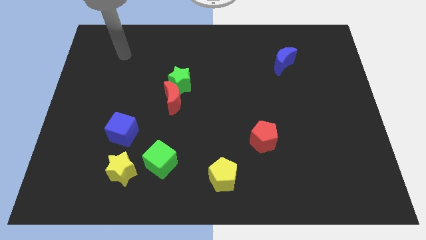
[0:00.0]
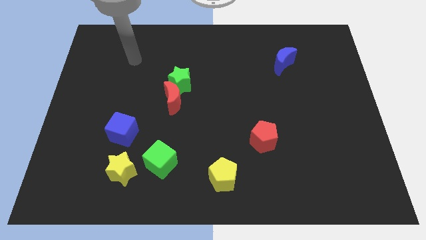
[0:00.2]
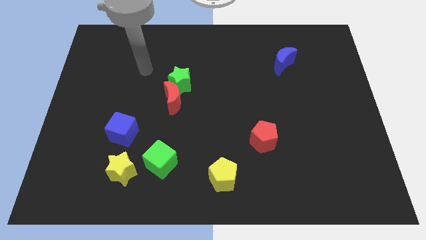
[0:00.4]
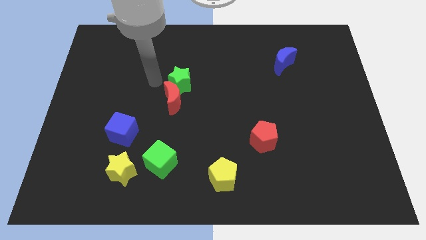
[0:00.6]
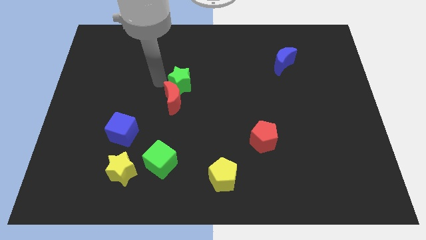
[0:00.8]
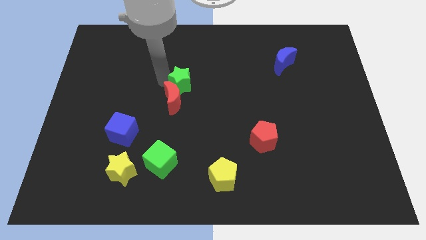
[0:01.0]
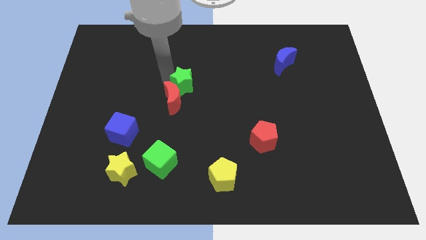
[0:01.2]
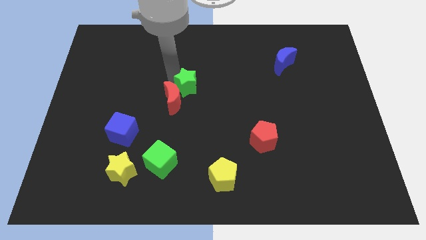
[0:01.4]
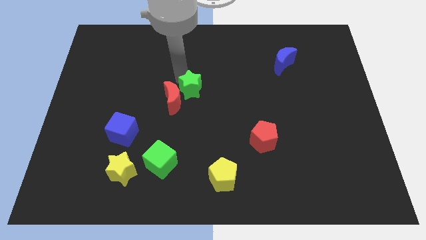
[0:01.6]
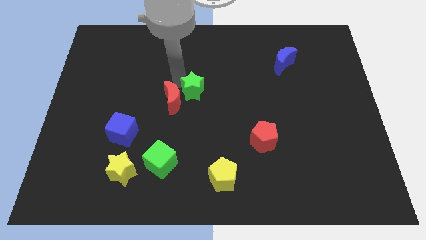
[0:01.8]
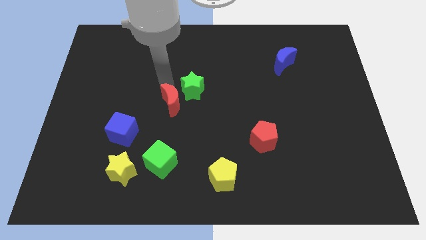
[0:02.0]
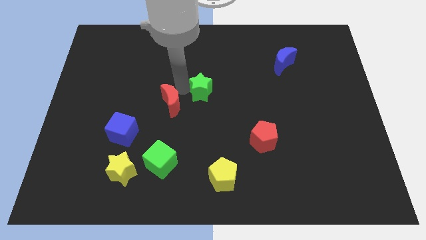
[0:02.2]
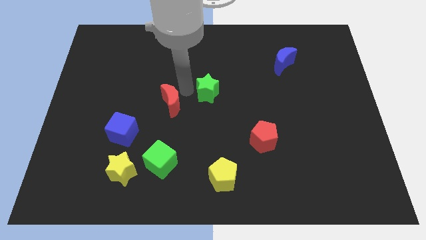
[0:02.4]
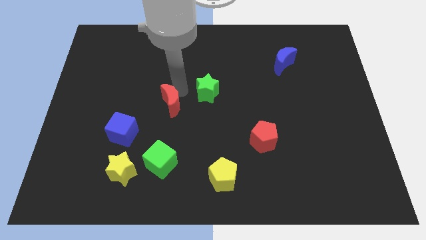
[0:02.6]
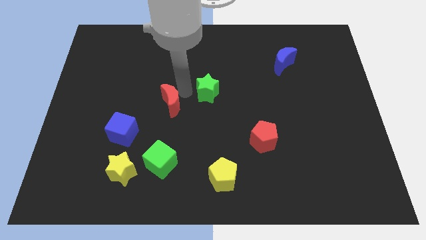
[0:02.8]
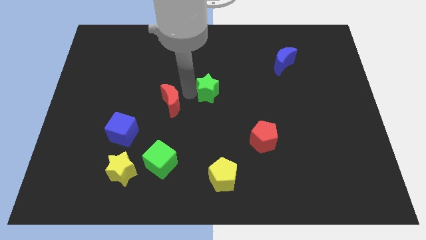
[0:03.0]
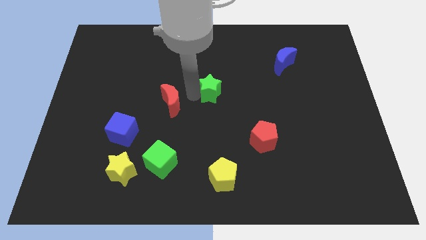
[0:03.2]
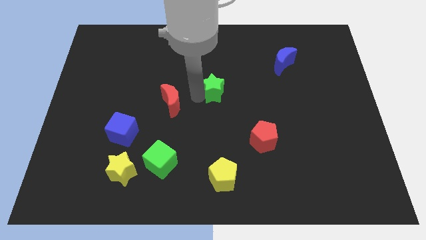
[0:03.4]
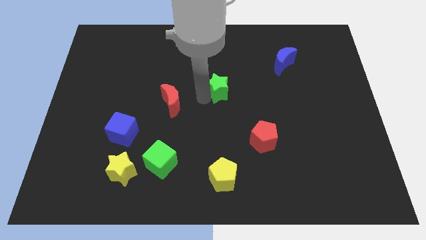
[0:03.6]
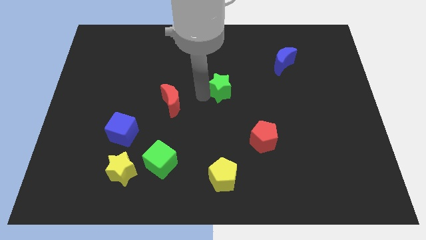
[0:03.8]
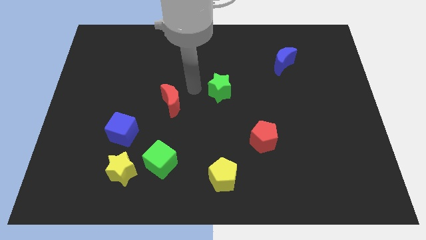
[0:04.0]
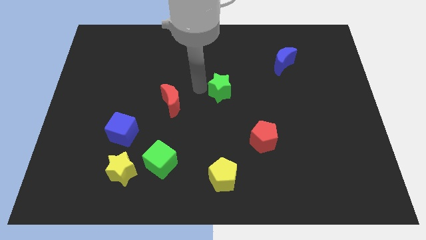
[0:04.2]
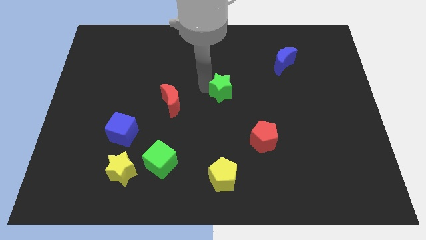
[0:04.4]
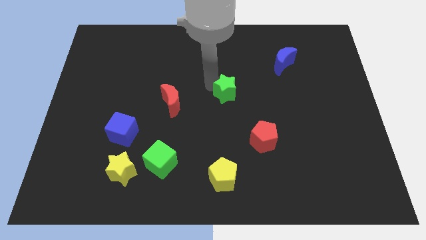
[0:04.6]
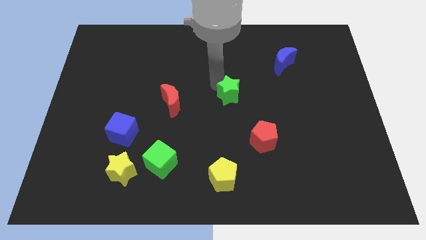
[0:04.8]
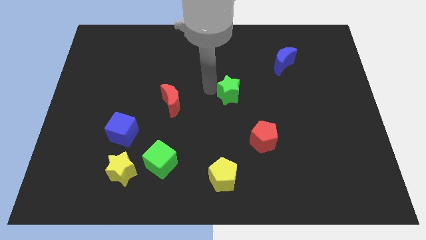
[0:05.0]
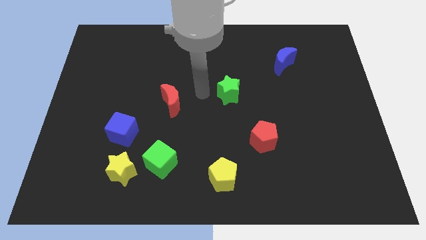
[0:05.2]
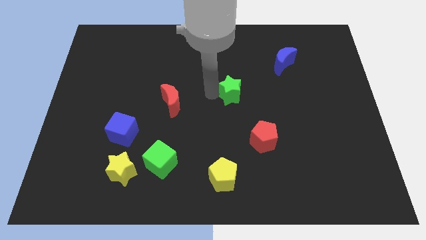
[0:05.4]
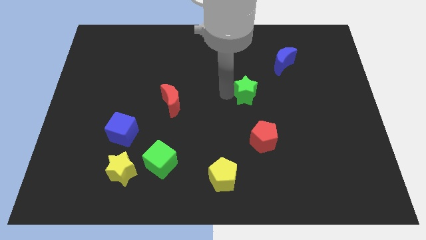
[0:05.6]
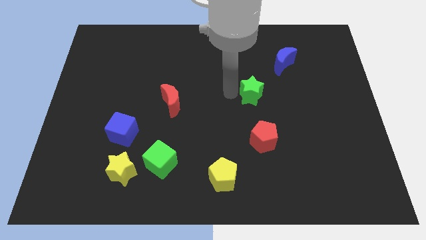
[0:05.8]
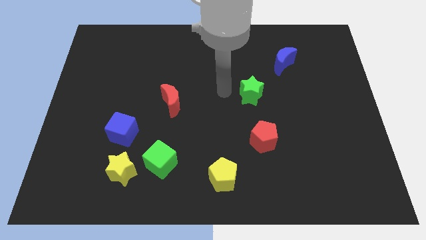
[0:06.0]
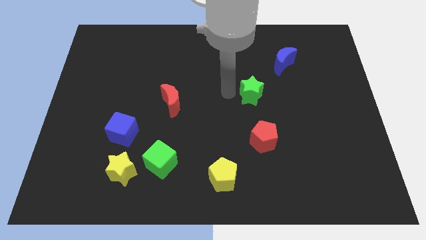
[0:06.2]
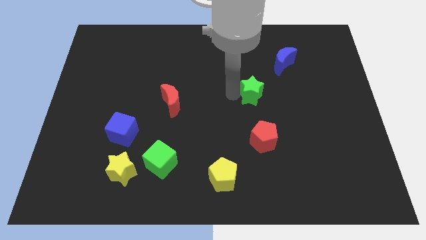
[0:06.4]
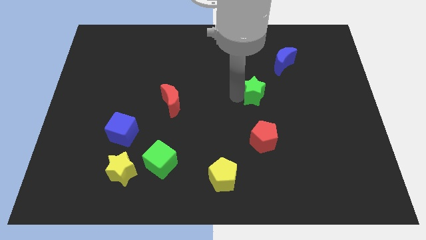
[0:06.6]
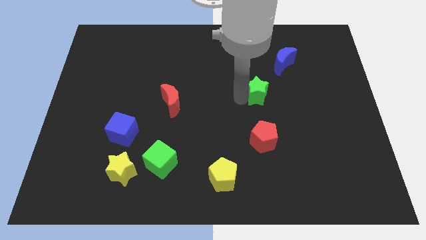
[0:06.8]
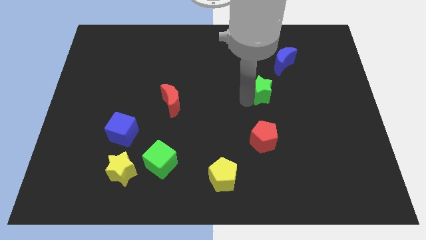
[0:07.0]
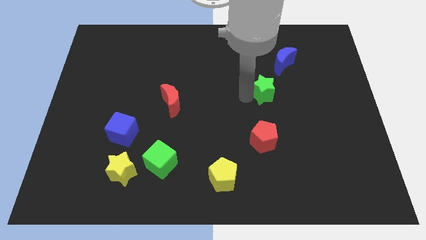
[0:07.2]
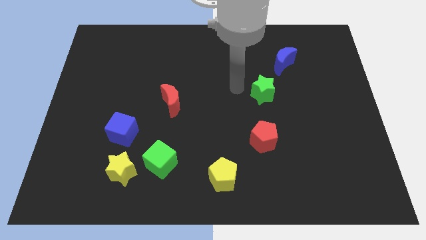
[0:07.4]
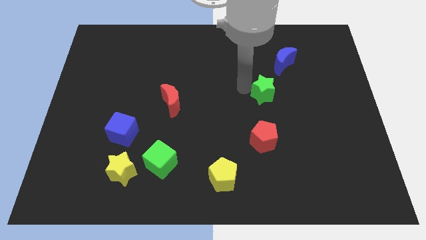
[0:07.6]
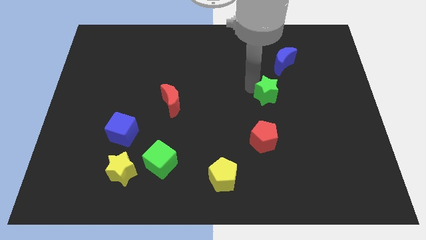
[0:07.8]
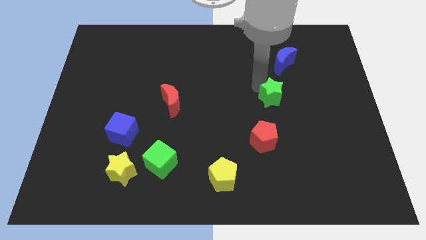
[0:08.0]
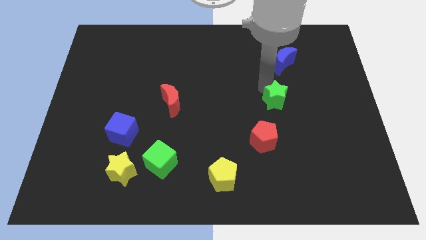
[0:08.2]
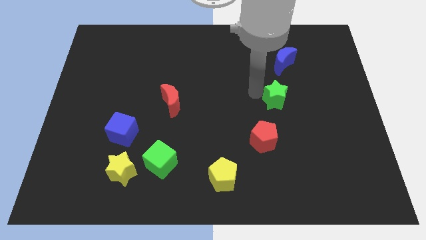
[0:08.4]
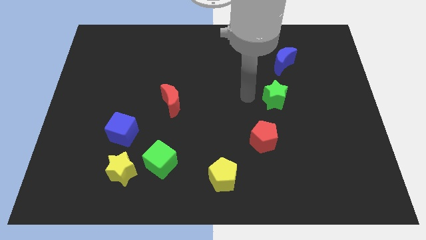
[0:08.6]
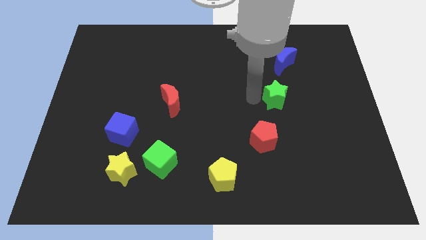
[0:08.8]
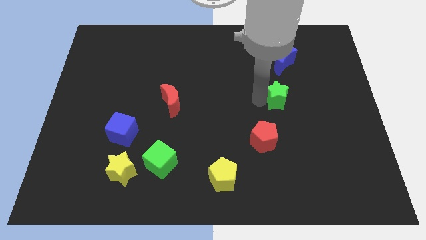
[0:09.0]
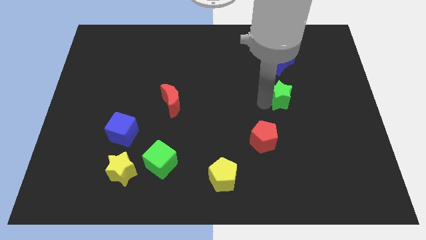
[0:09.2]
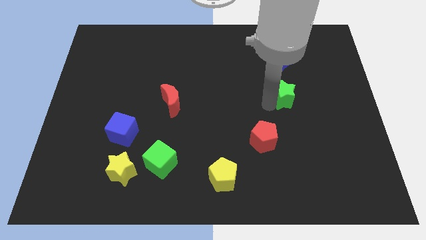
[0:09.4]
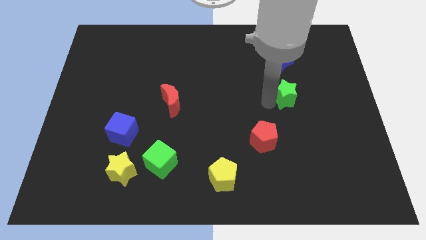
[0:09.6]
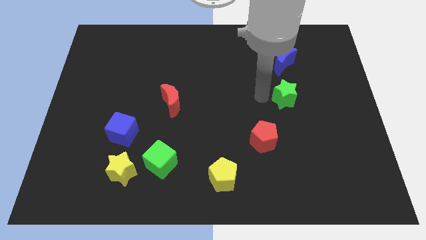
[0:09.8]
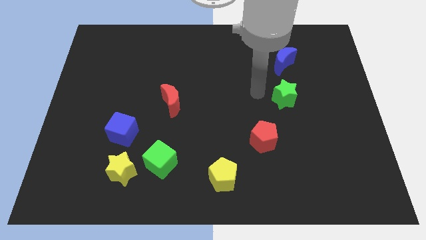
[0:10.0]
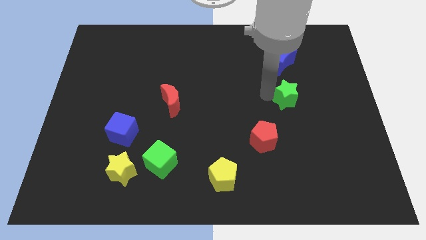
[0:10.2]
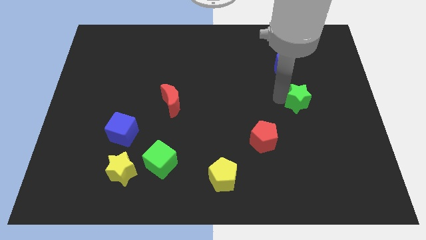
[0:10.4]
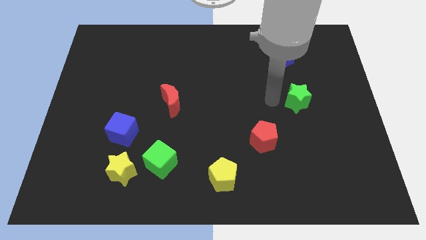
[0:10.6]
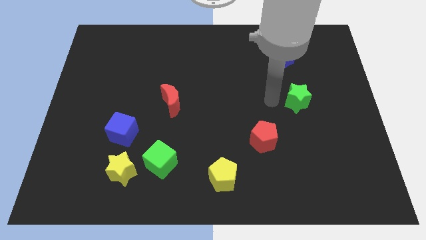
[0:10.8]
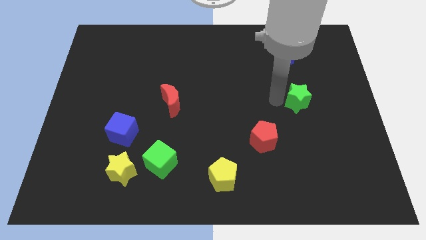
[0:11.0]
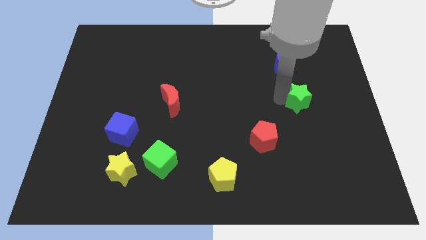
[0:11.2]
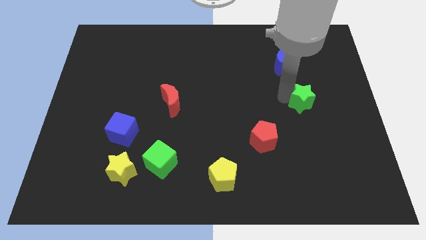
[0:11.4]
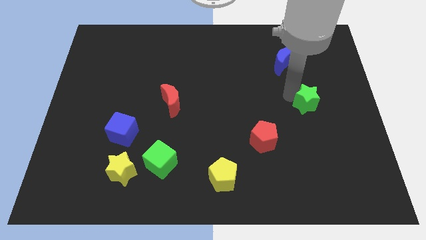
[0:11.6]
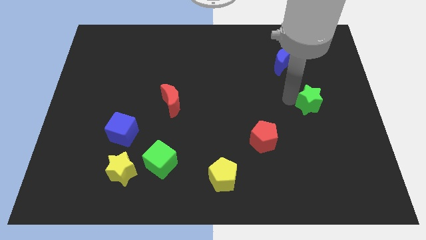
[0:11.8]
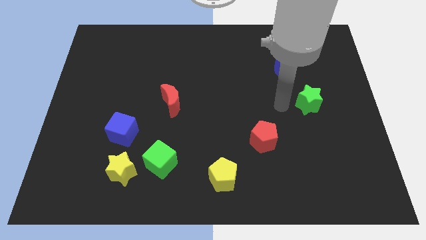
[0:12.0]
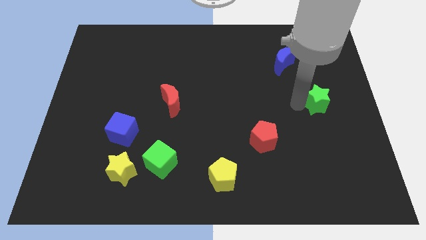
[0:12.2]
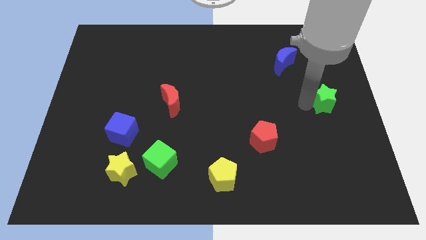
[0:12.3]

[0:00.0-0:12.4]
put the green star to the center right
